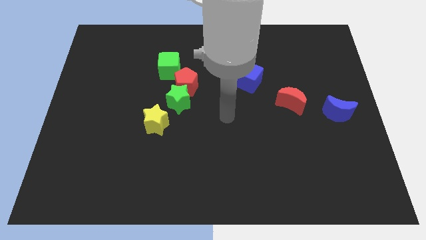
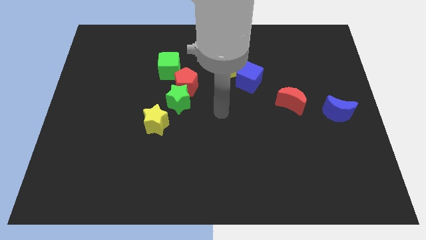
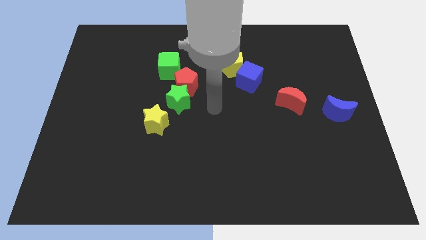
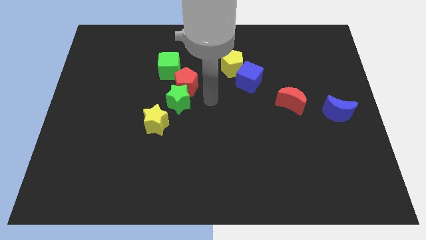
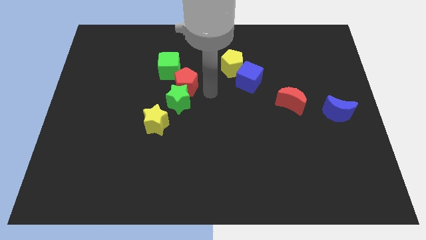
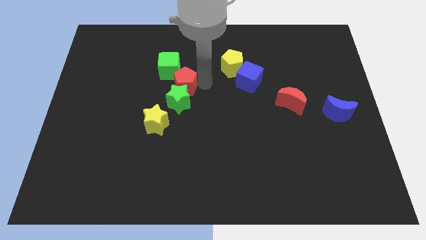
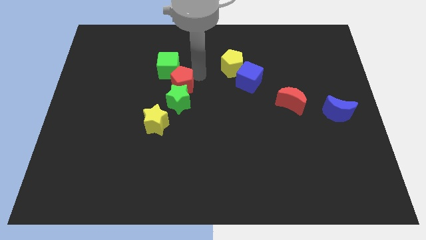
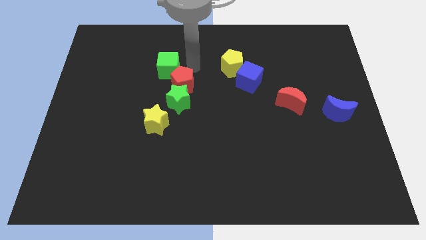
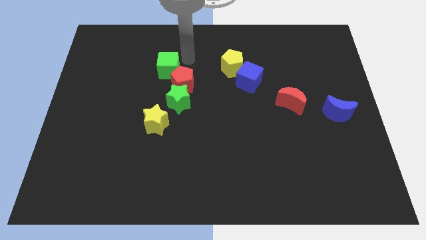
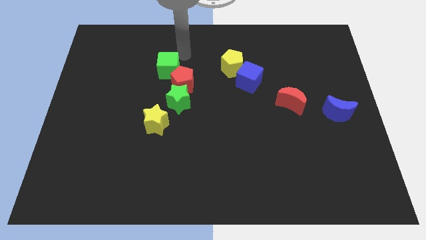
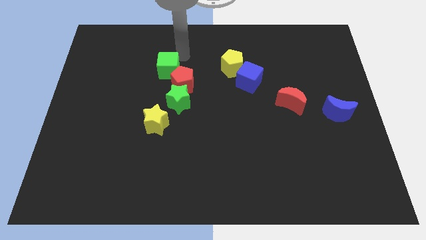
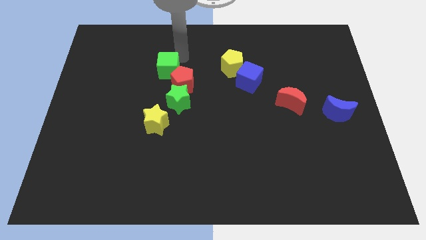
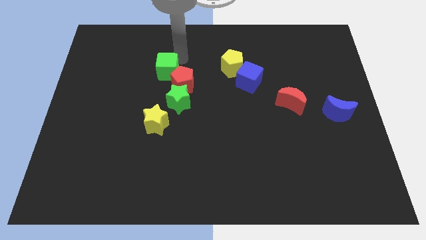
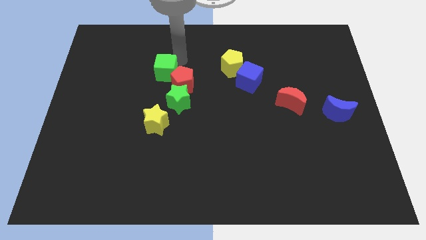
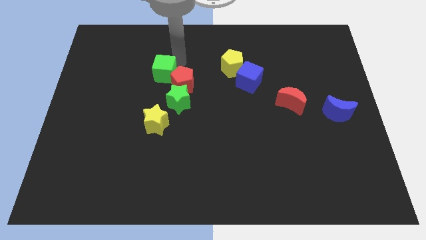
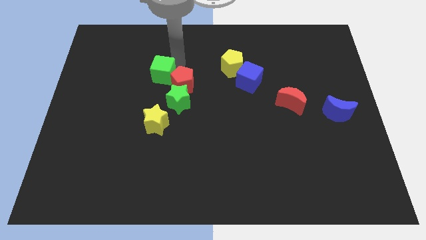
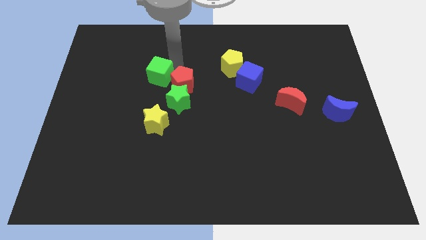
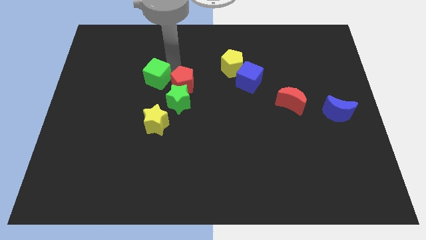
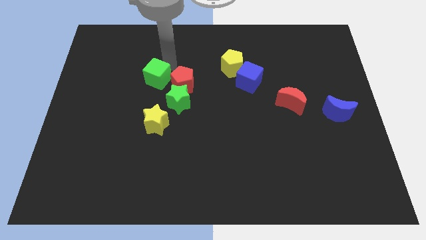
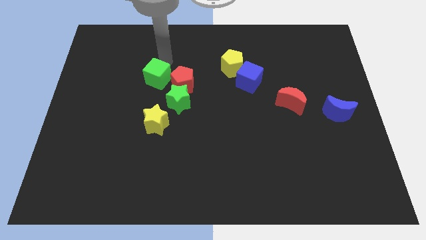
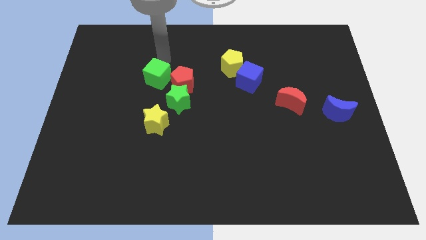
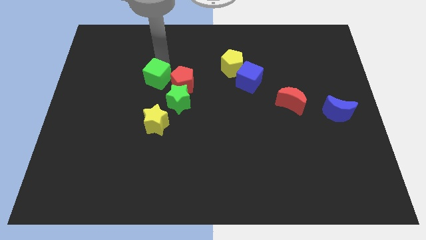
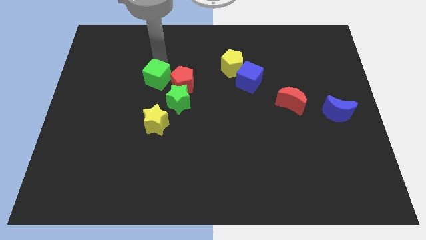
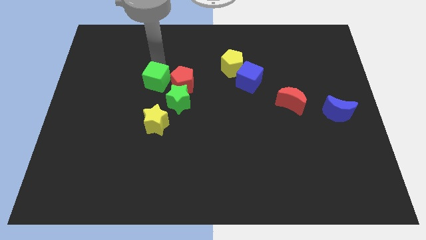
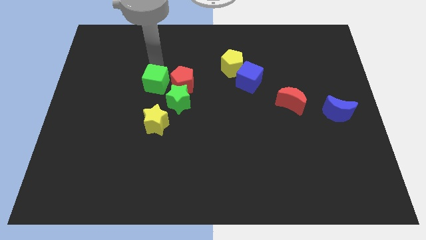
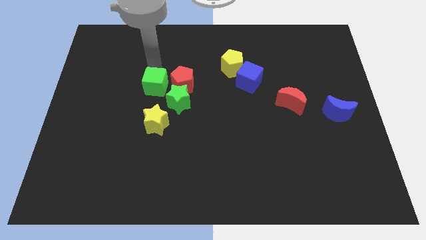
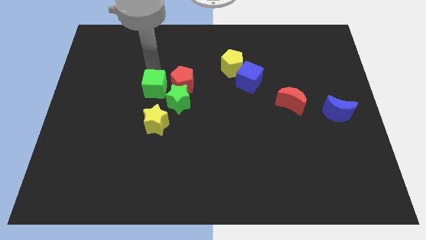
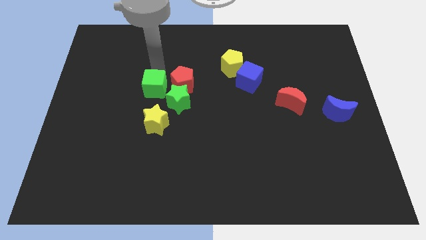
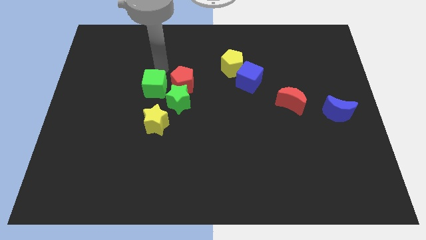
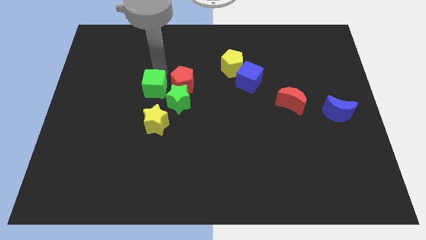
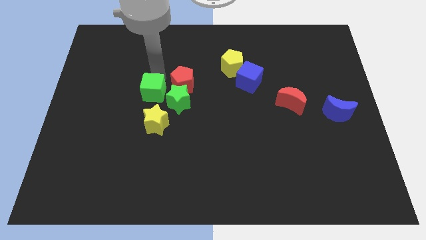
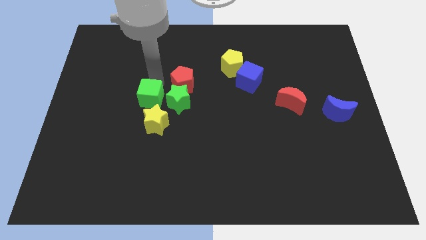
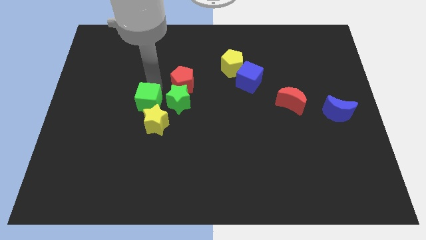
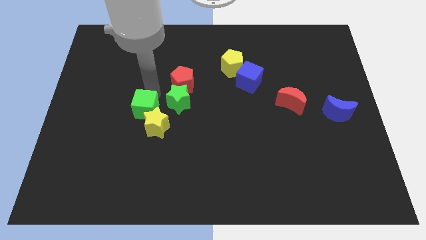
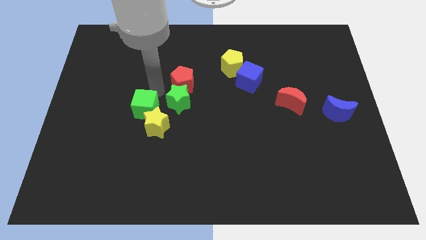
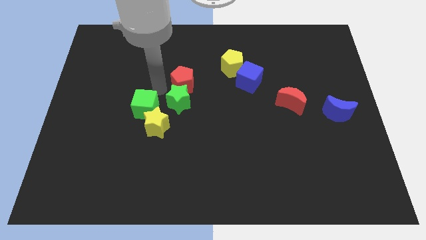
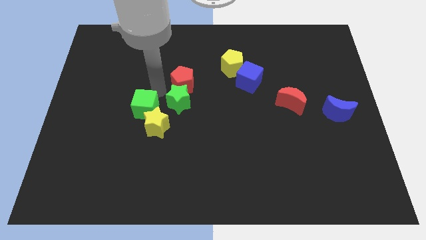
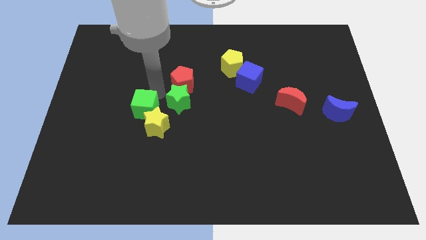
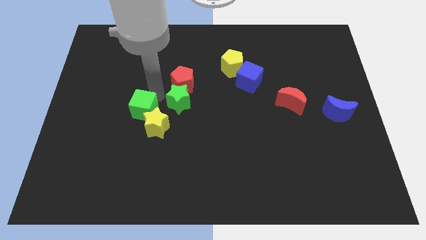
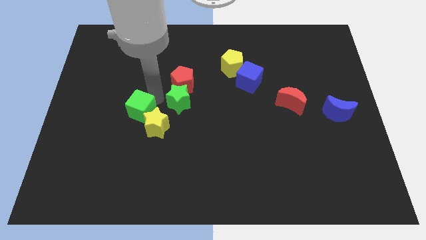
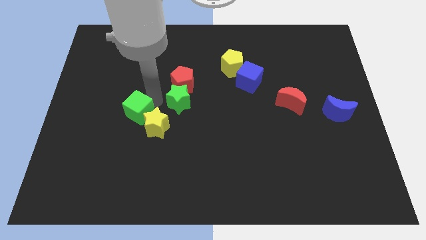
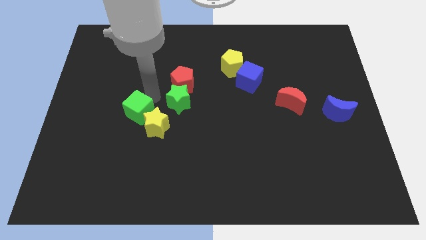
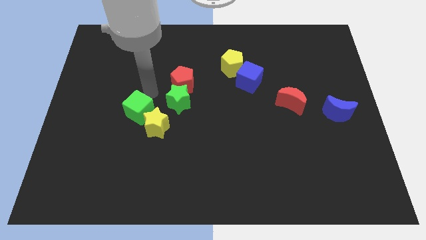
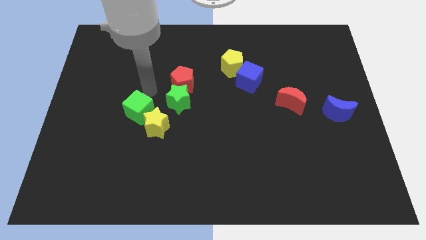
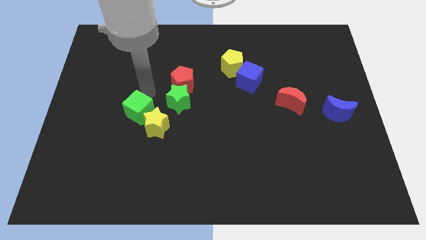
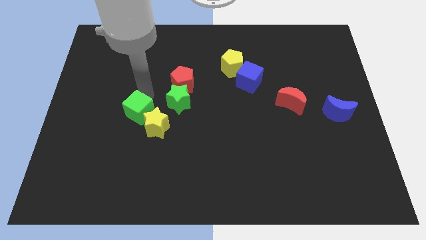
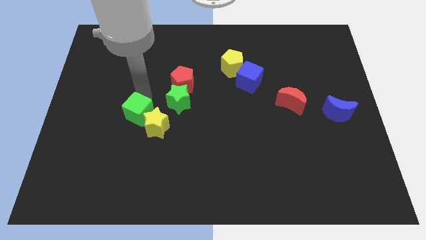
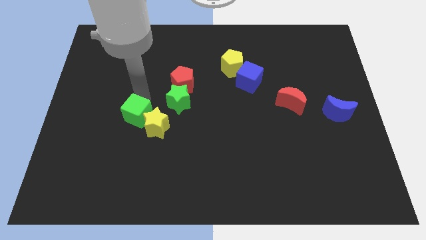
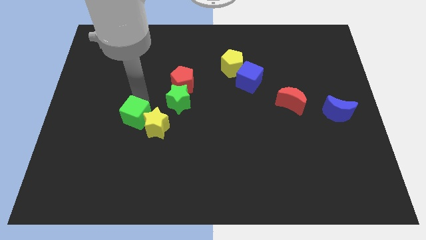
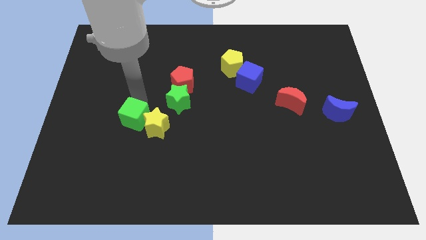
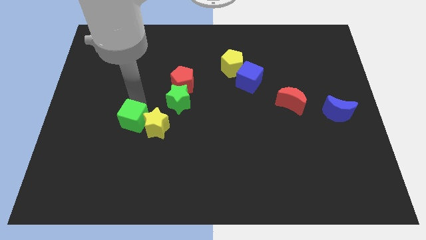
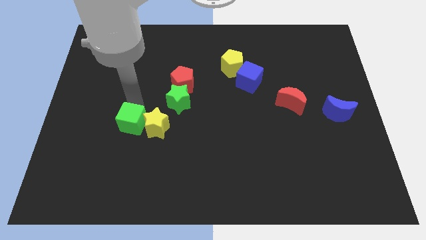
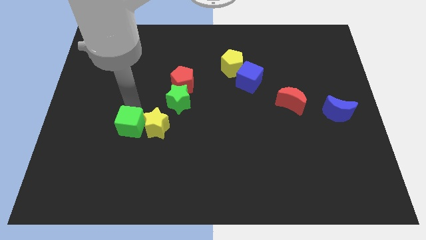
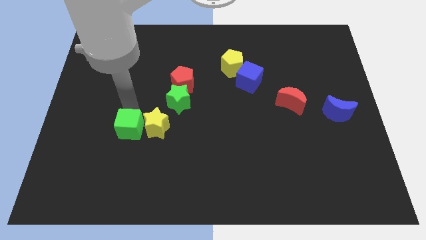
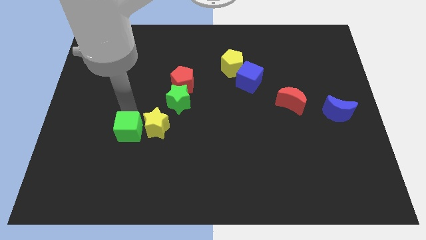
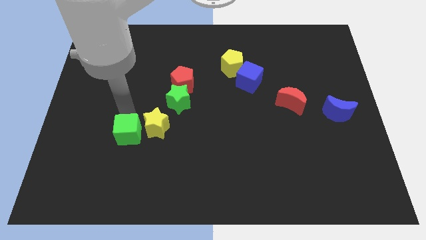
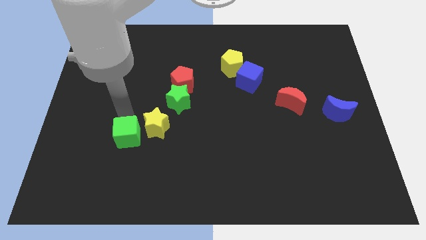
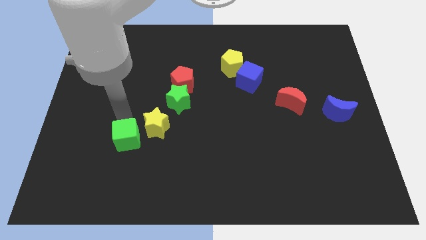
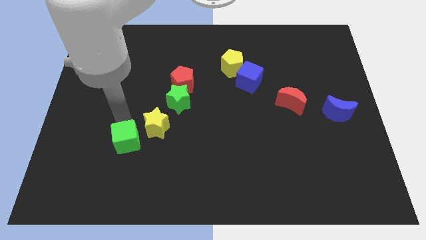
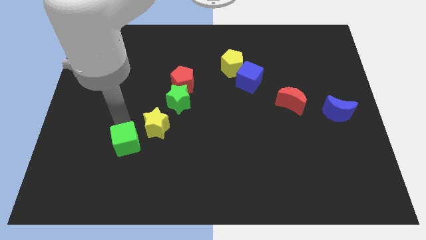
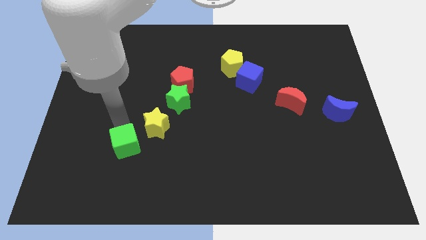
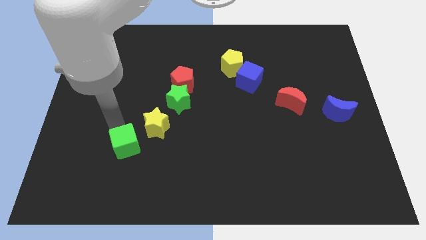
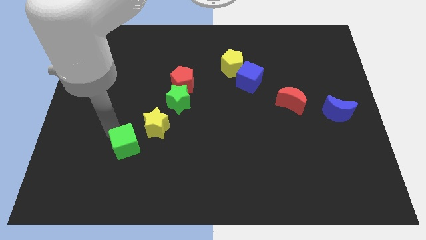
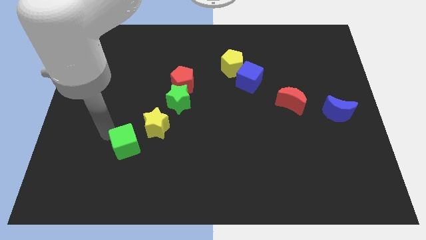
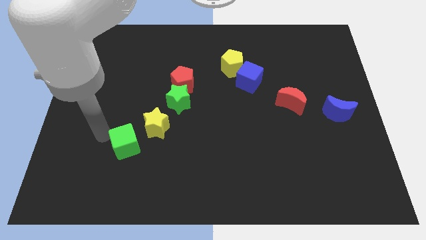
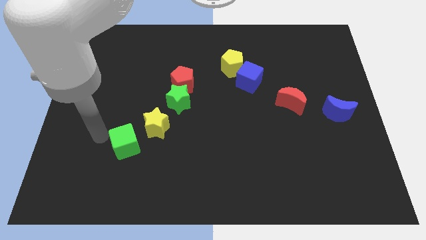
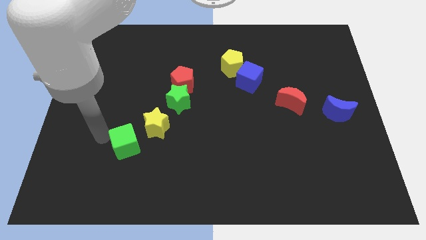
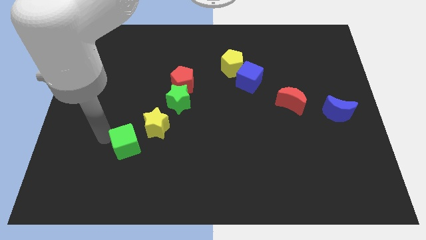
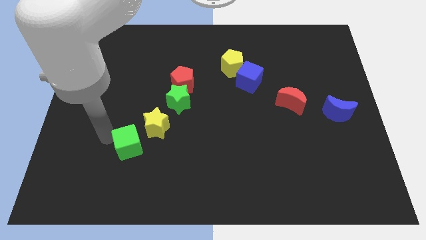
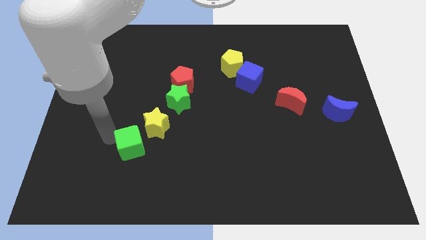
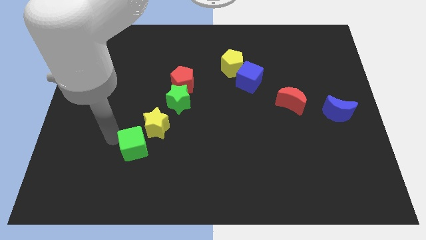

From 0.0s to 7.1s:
put the green cube to the bottom side of the yellow star
